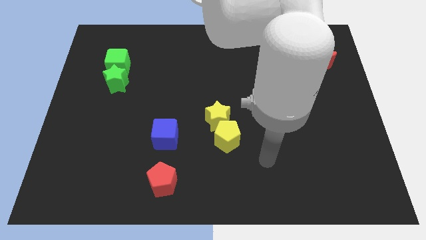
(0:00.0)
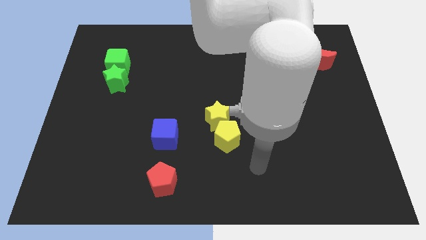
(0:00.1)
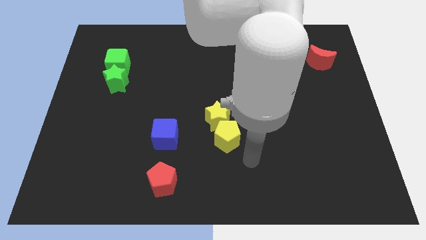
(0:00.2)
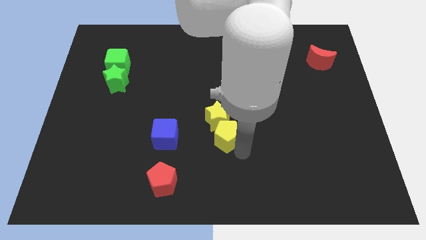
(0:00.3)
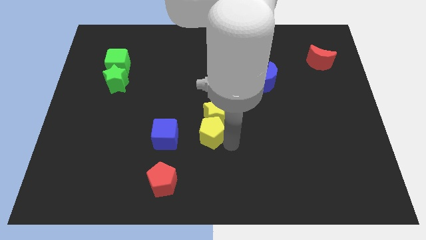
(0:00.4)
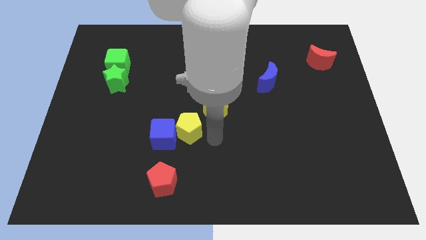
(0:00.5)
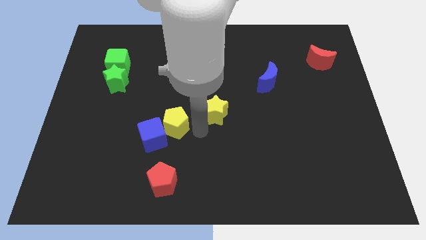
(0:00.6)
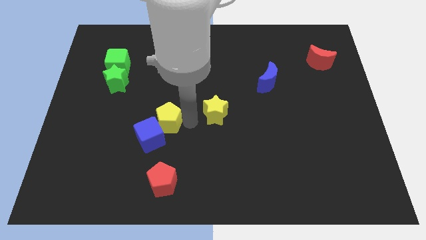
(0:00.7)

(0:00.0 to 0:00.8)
move the yellow star away from the yellow pentagon

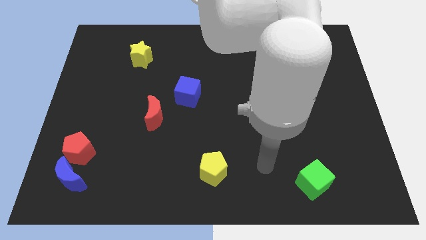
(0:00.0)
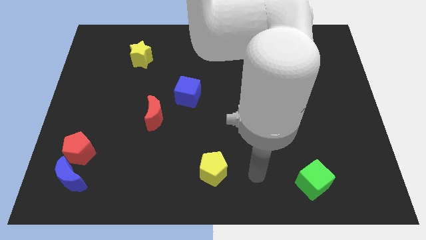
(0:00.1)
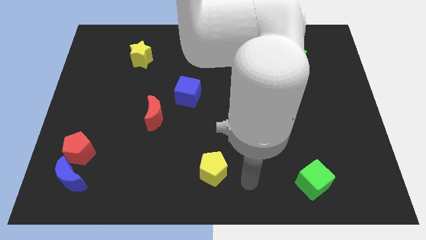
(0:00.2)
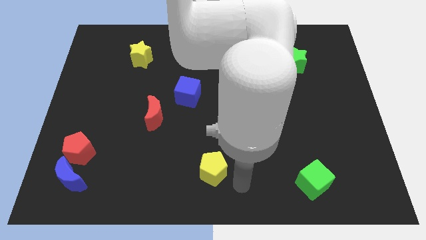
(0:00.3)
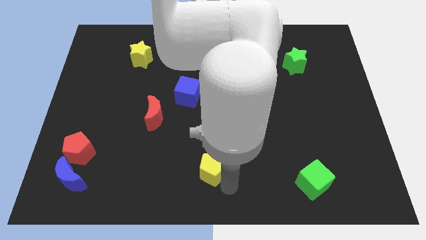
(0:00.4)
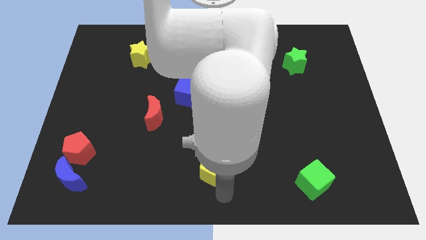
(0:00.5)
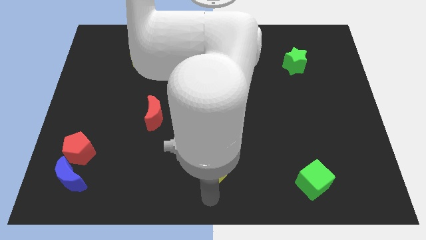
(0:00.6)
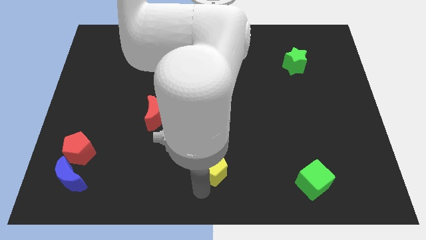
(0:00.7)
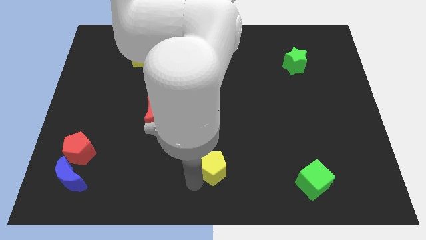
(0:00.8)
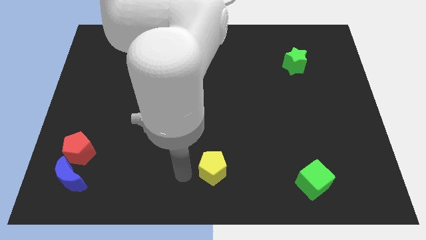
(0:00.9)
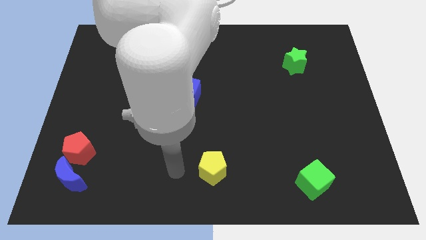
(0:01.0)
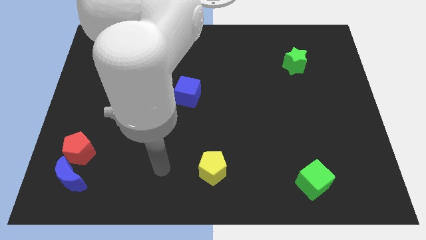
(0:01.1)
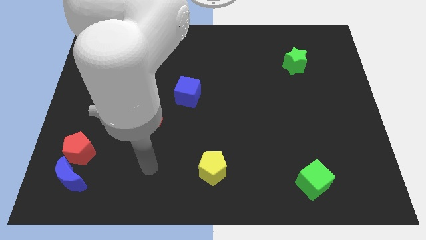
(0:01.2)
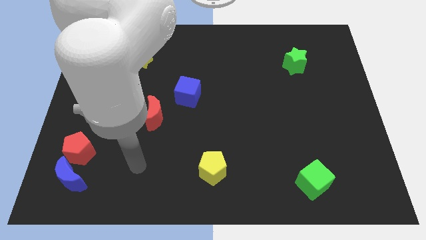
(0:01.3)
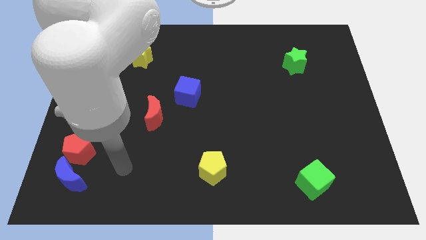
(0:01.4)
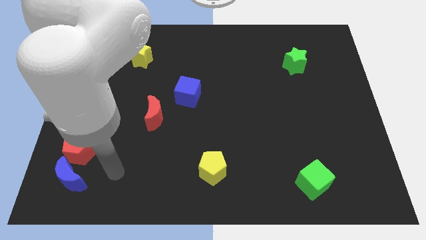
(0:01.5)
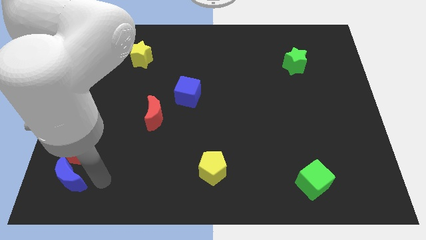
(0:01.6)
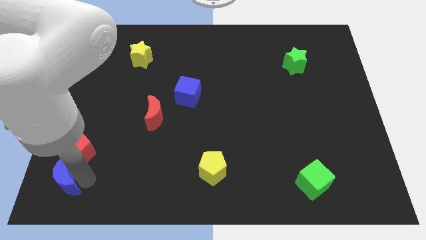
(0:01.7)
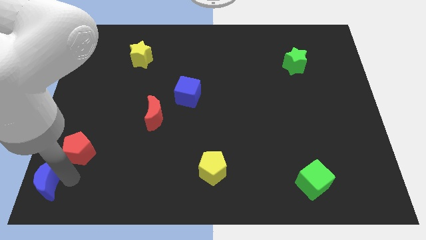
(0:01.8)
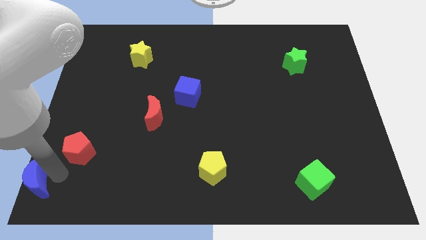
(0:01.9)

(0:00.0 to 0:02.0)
separate the red pentagon from the blue moon

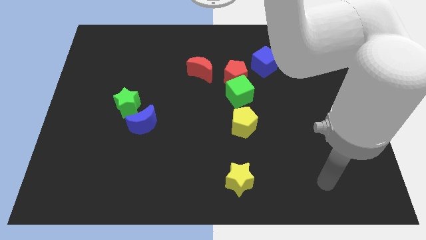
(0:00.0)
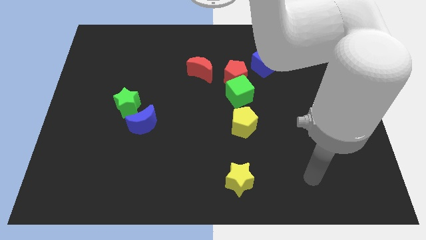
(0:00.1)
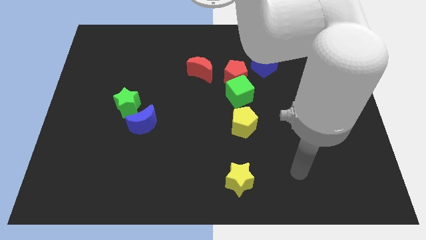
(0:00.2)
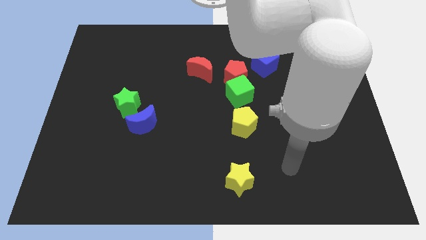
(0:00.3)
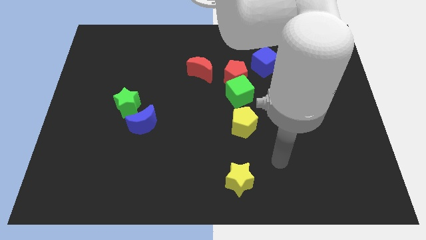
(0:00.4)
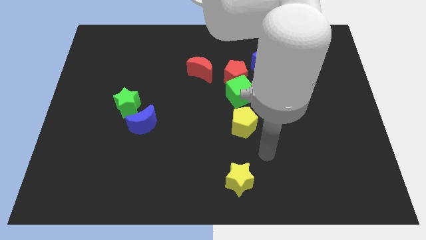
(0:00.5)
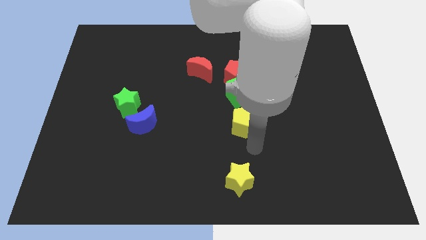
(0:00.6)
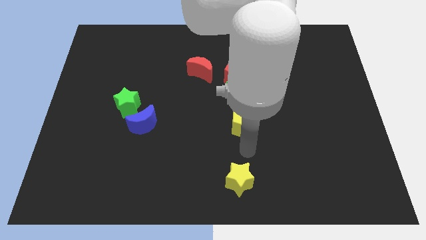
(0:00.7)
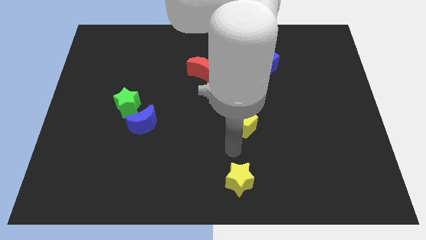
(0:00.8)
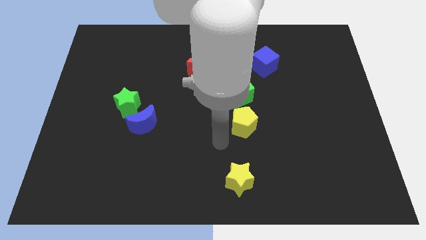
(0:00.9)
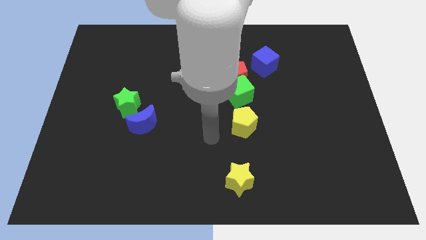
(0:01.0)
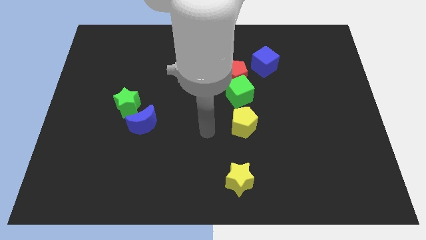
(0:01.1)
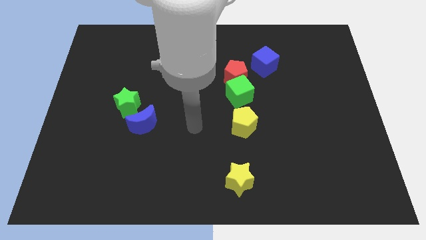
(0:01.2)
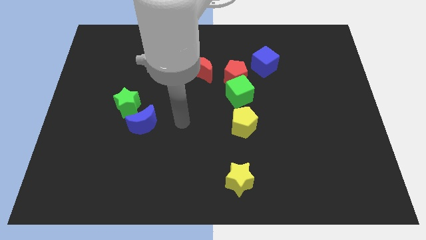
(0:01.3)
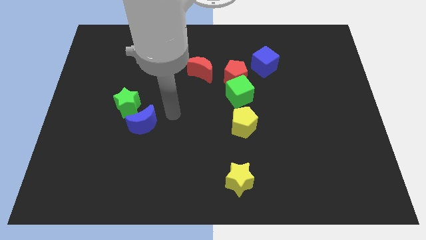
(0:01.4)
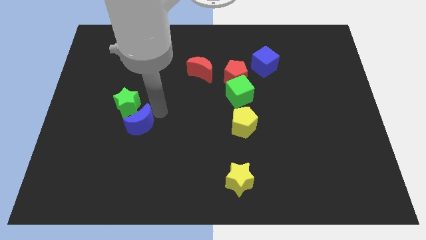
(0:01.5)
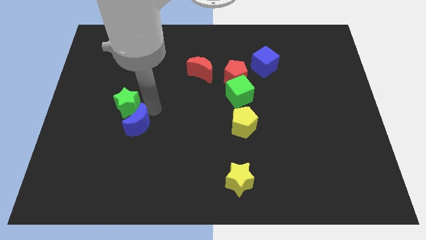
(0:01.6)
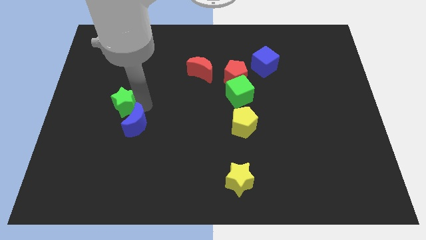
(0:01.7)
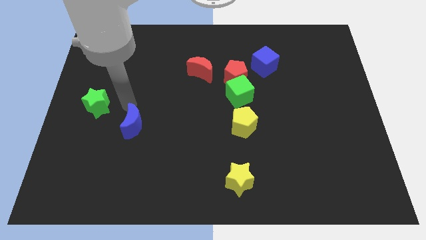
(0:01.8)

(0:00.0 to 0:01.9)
separate the blue moon from the green star

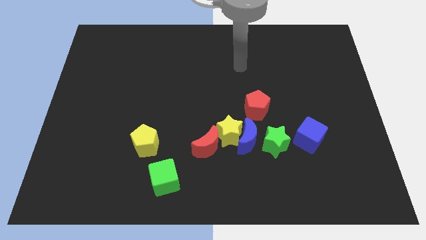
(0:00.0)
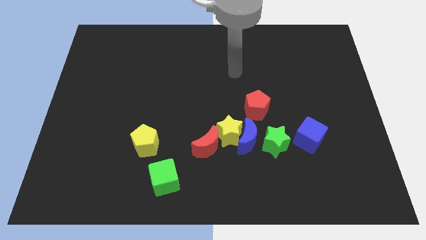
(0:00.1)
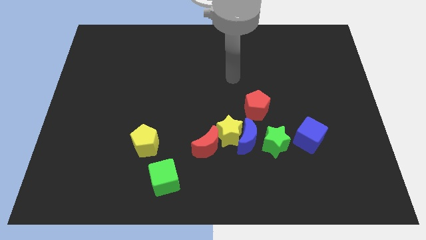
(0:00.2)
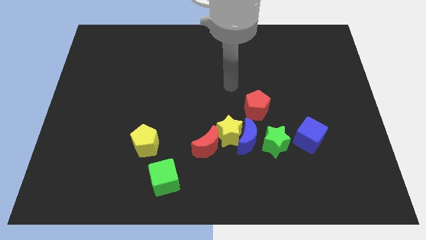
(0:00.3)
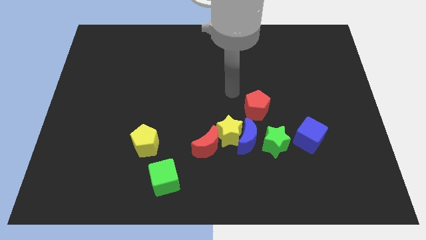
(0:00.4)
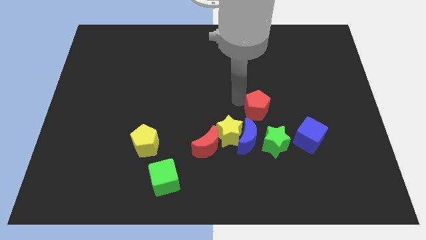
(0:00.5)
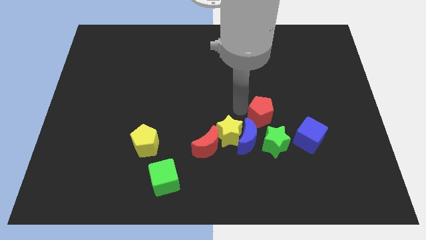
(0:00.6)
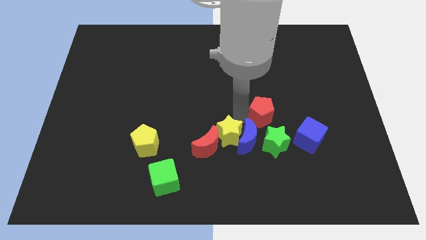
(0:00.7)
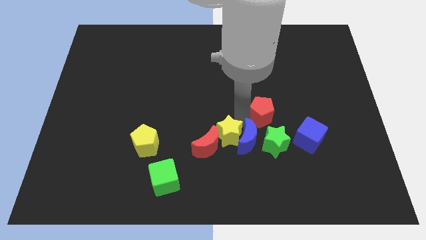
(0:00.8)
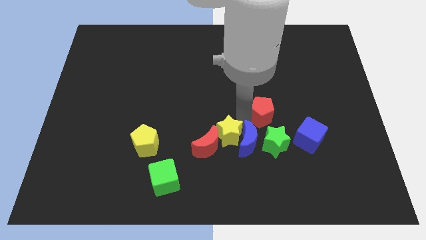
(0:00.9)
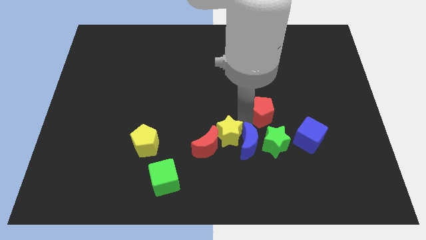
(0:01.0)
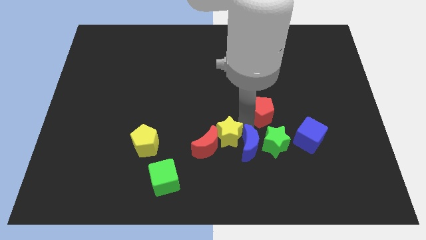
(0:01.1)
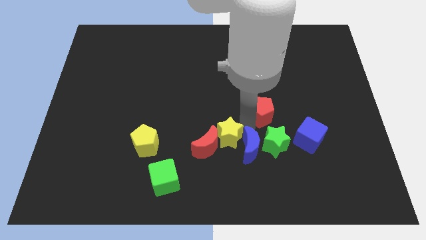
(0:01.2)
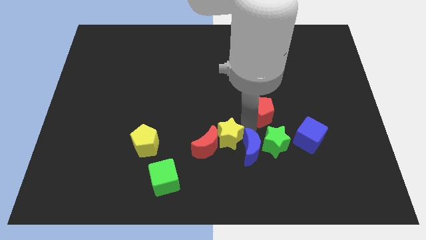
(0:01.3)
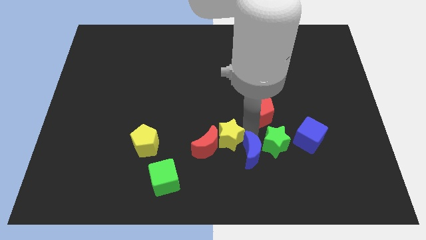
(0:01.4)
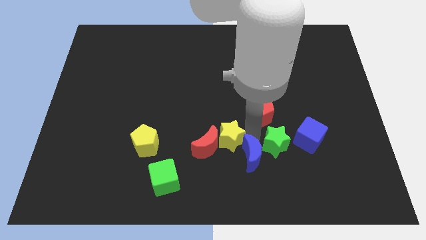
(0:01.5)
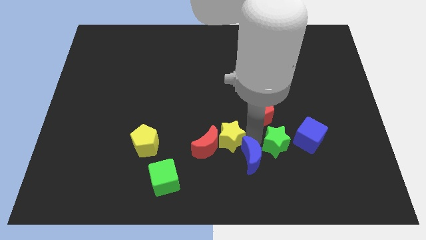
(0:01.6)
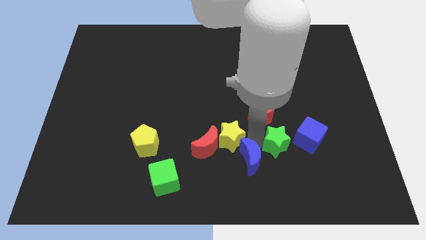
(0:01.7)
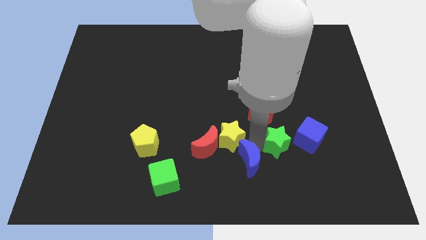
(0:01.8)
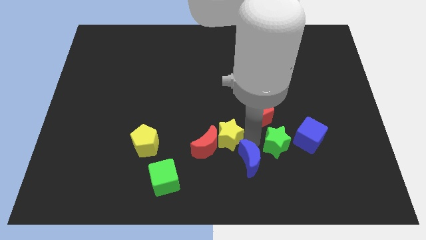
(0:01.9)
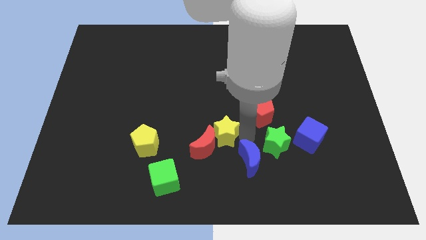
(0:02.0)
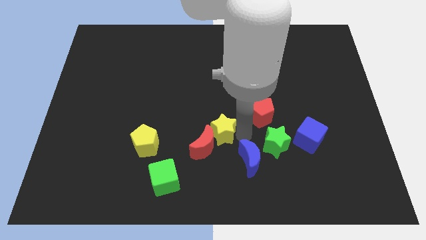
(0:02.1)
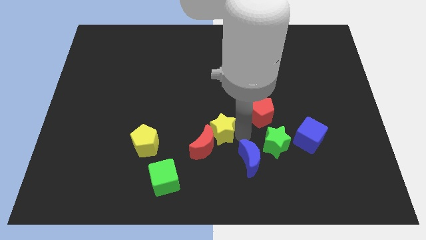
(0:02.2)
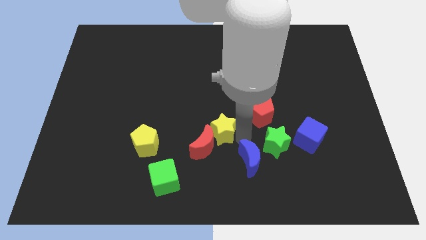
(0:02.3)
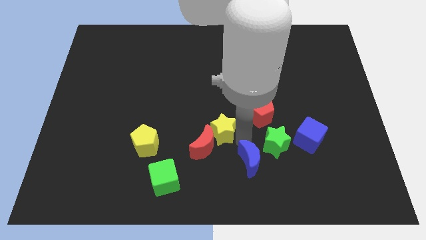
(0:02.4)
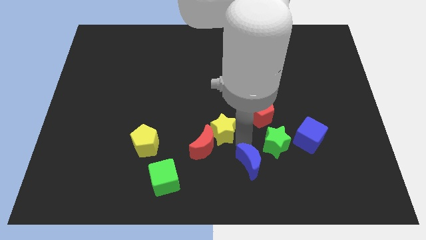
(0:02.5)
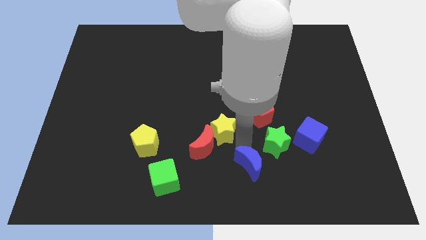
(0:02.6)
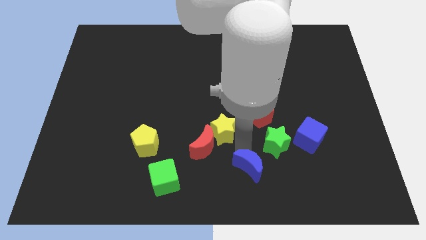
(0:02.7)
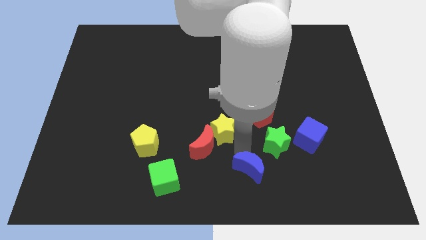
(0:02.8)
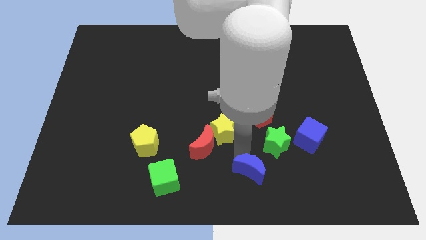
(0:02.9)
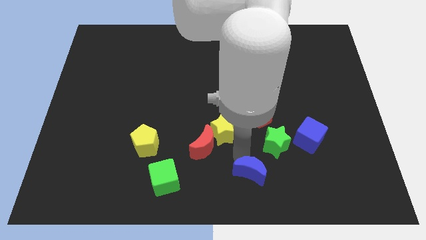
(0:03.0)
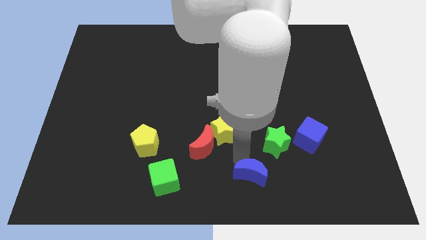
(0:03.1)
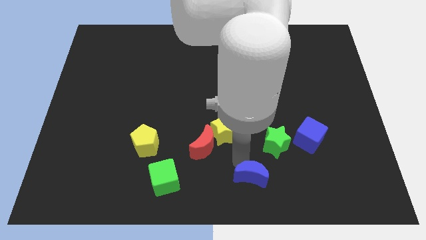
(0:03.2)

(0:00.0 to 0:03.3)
separate the blue moon from the group of blocks

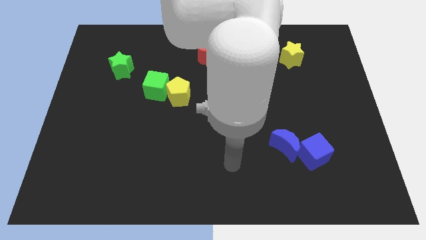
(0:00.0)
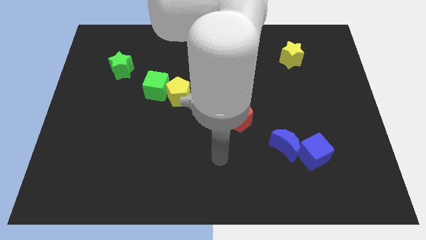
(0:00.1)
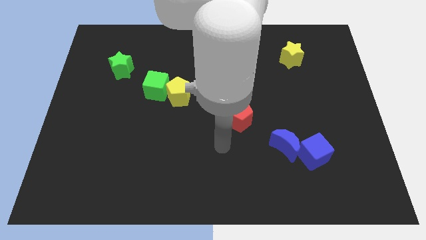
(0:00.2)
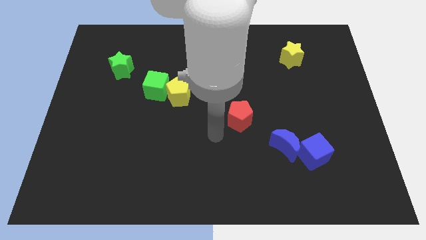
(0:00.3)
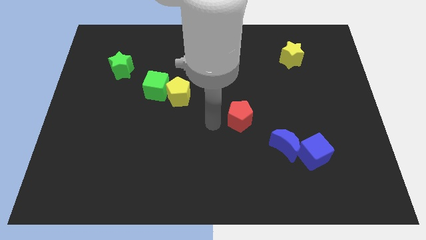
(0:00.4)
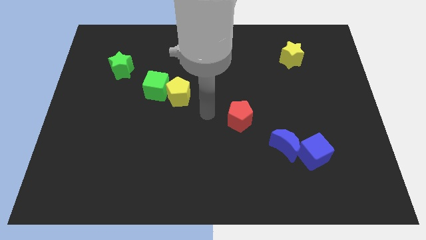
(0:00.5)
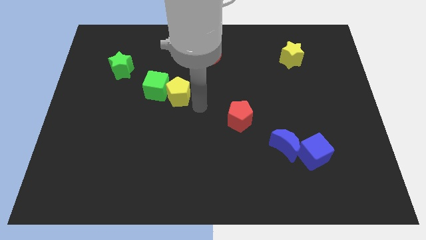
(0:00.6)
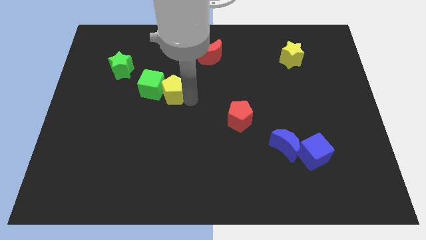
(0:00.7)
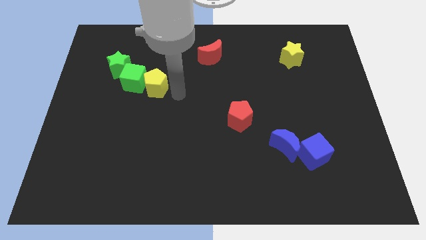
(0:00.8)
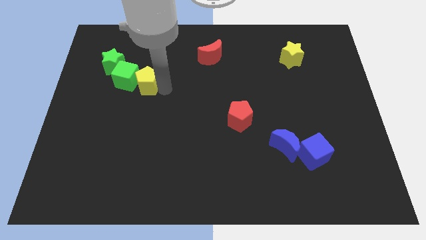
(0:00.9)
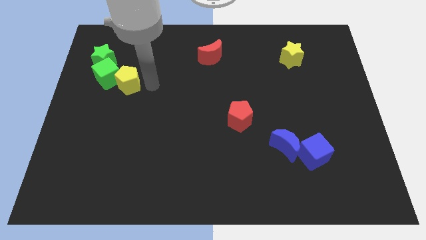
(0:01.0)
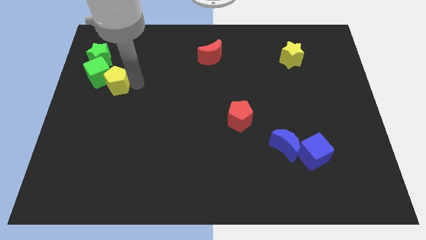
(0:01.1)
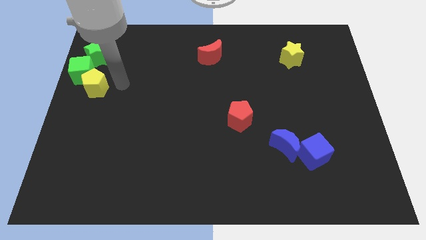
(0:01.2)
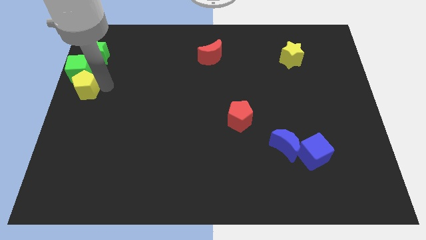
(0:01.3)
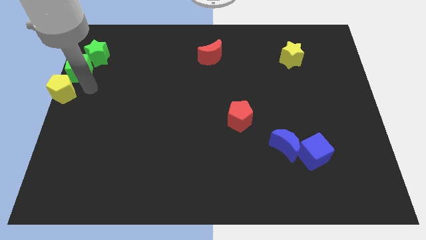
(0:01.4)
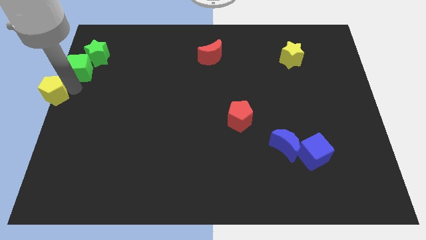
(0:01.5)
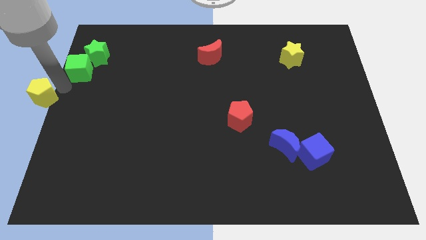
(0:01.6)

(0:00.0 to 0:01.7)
move the green cube away from the yellow pentagon
